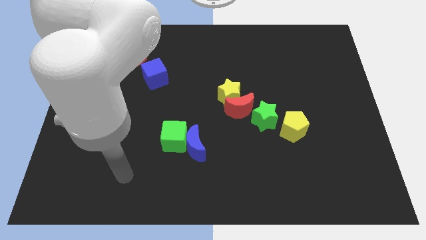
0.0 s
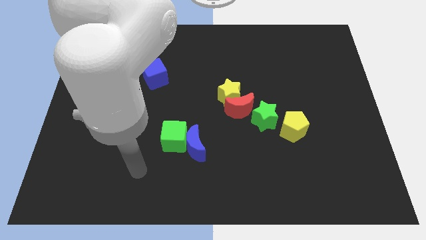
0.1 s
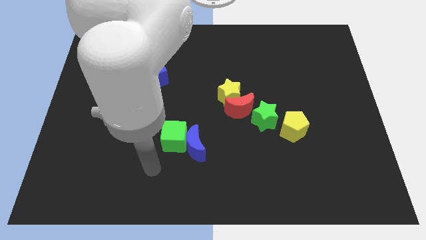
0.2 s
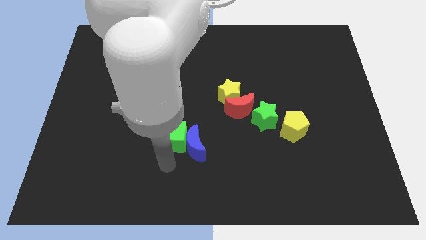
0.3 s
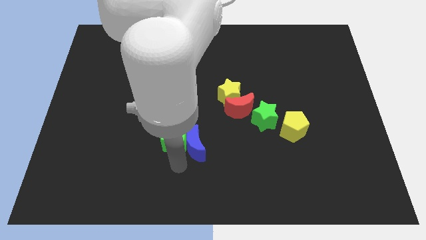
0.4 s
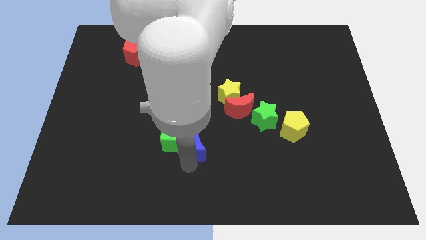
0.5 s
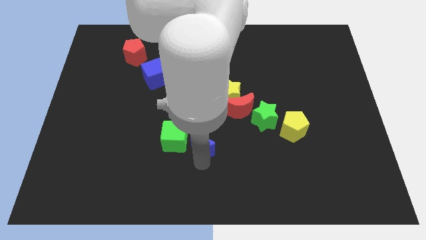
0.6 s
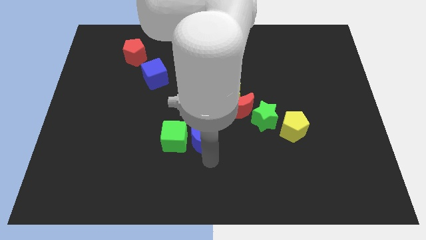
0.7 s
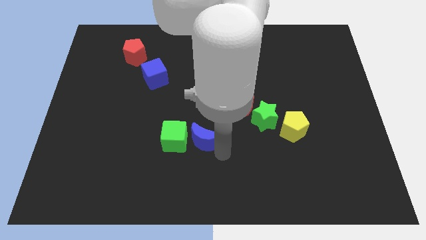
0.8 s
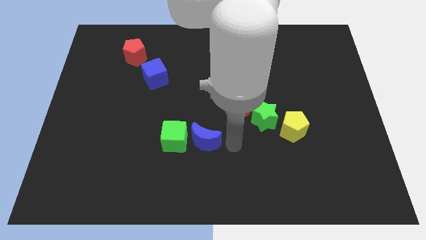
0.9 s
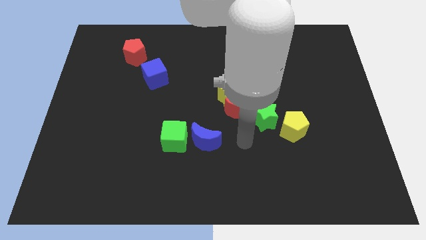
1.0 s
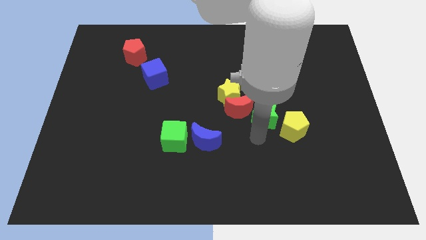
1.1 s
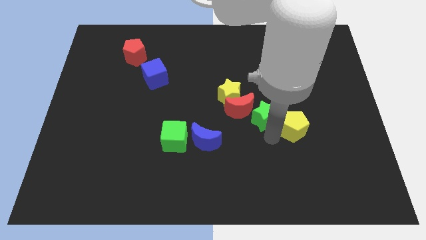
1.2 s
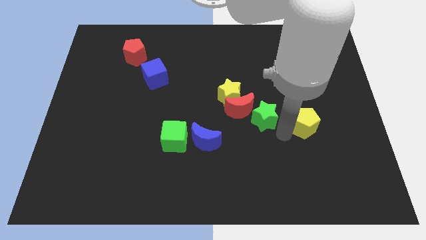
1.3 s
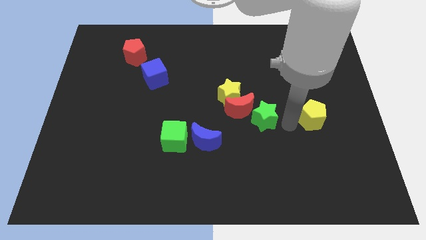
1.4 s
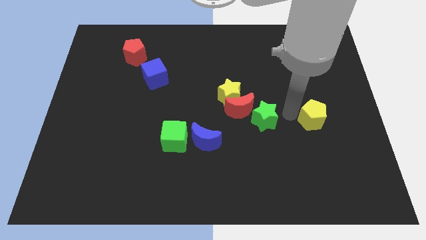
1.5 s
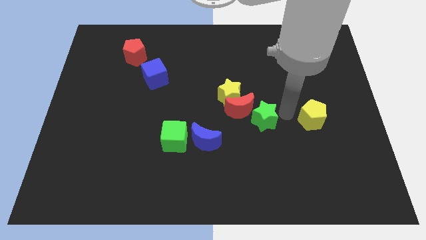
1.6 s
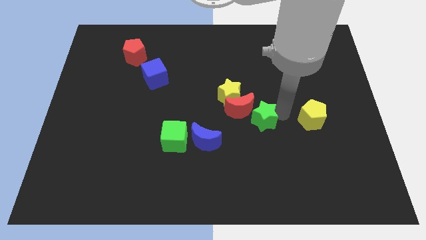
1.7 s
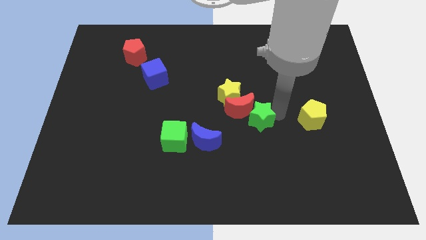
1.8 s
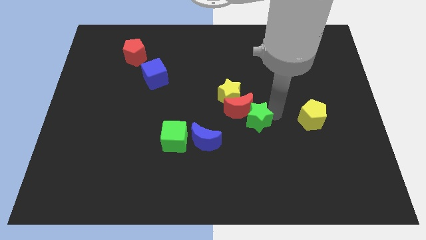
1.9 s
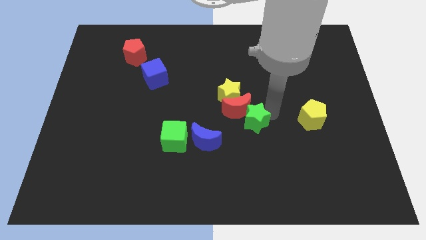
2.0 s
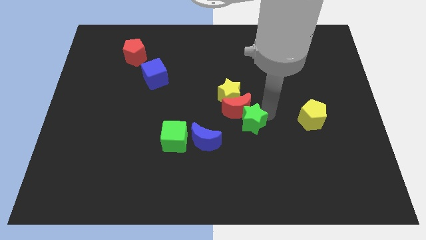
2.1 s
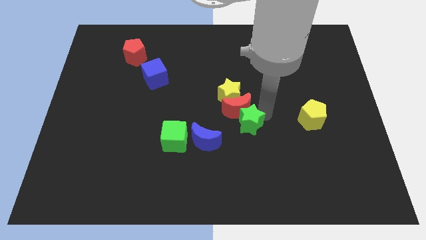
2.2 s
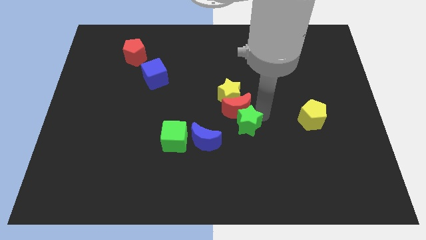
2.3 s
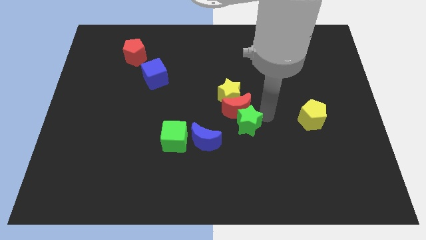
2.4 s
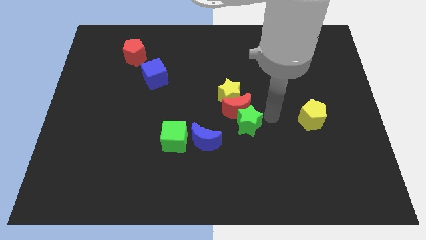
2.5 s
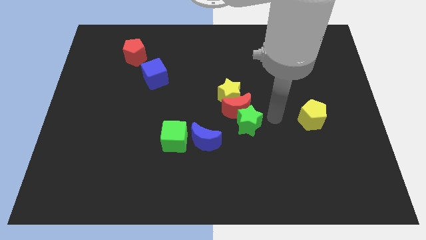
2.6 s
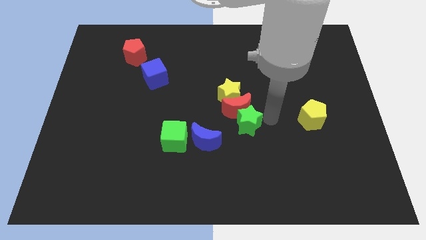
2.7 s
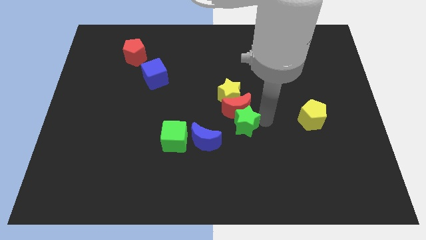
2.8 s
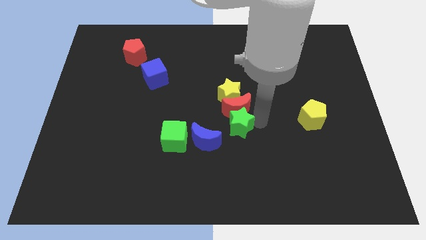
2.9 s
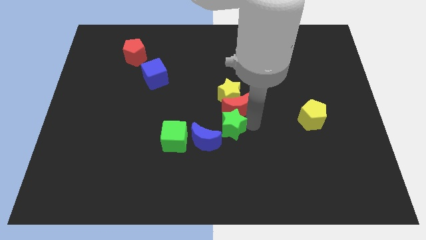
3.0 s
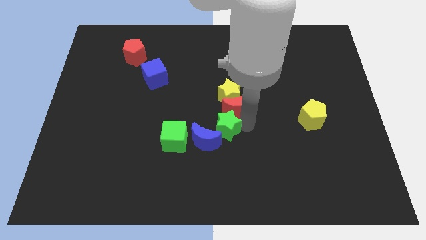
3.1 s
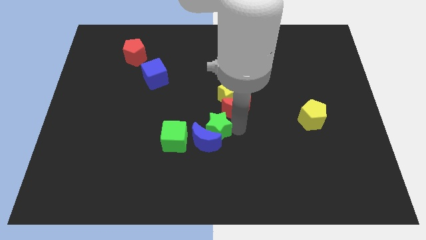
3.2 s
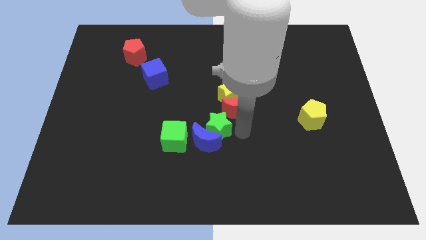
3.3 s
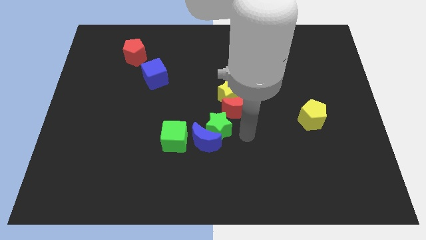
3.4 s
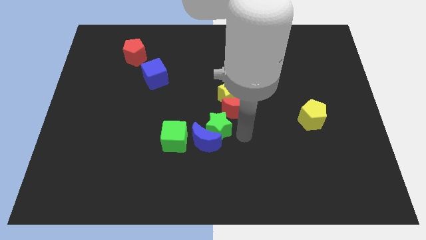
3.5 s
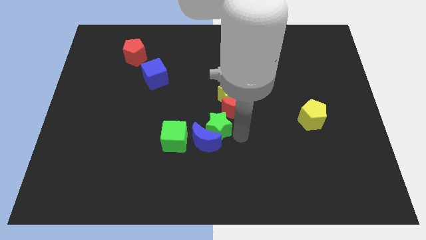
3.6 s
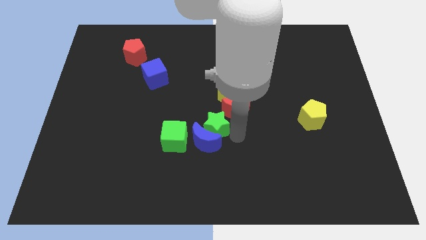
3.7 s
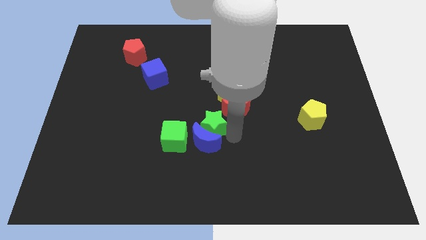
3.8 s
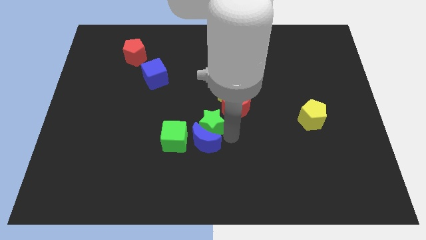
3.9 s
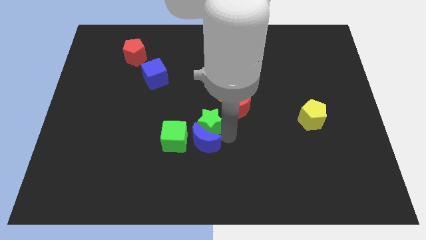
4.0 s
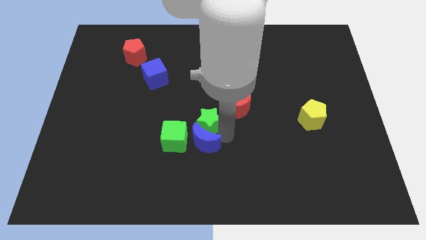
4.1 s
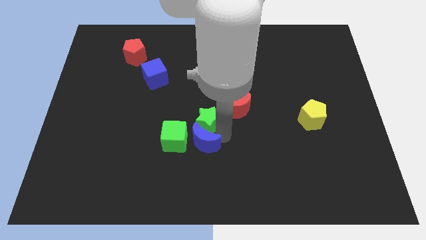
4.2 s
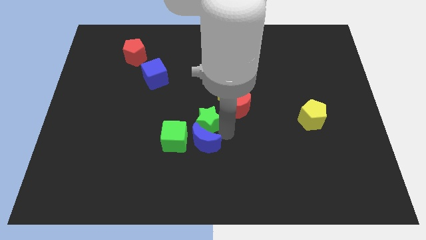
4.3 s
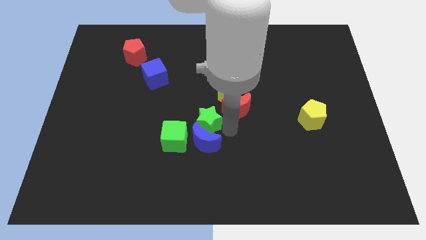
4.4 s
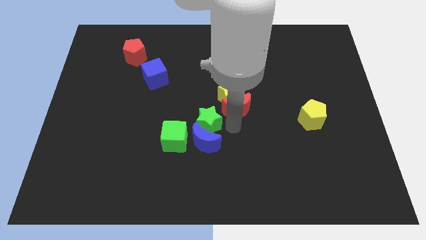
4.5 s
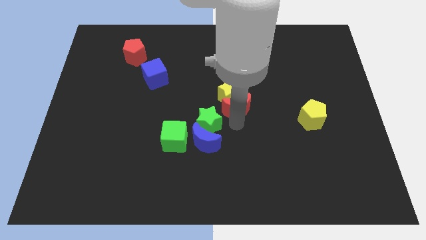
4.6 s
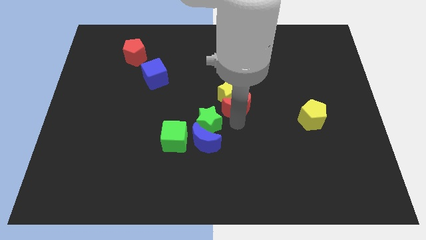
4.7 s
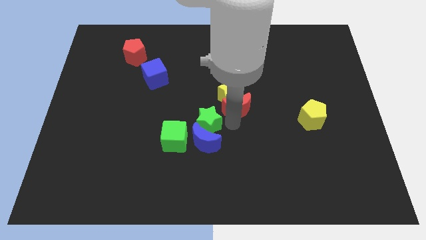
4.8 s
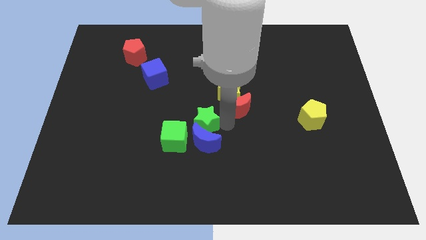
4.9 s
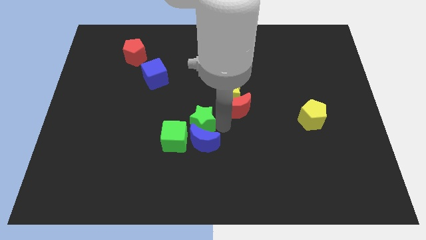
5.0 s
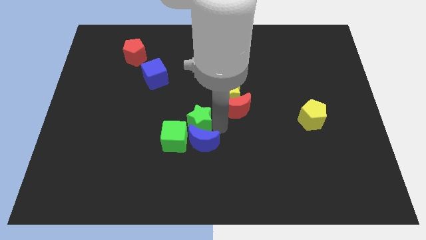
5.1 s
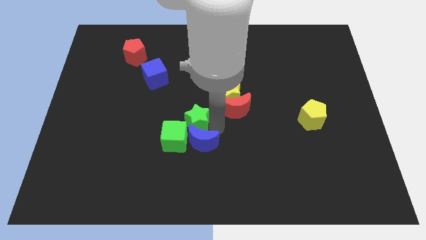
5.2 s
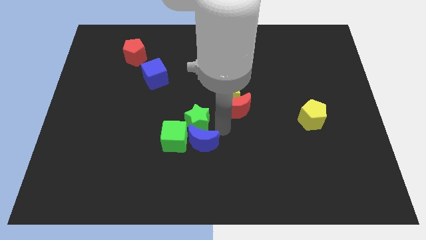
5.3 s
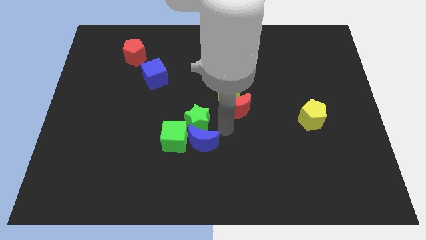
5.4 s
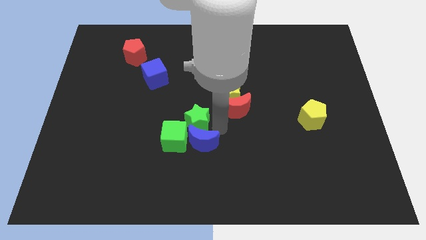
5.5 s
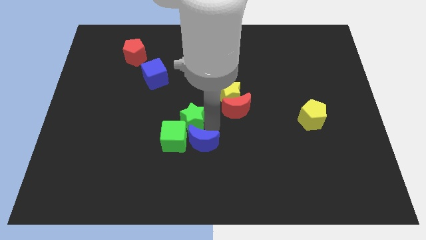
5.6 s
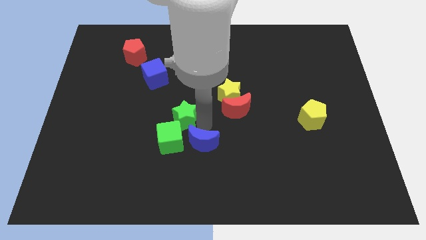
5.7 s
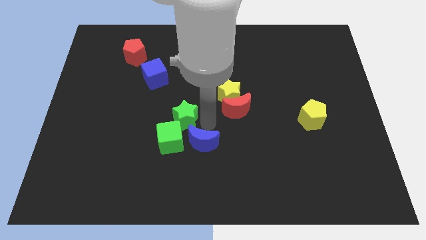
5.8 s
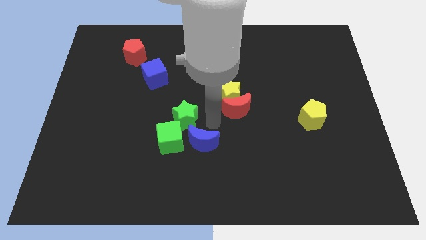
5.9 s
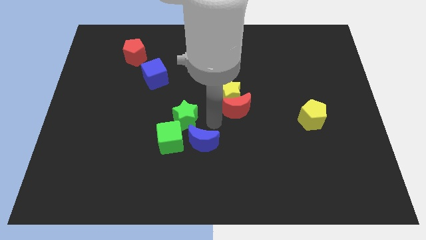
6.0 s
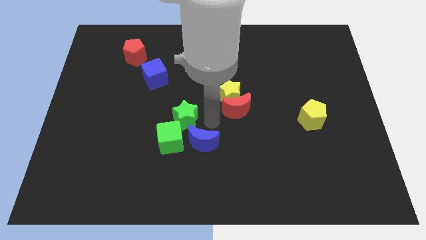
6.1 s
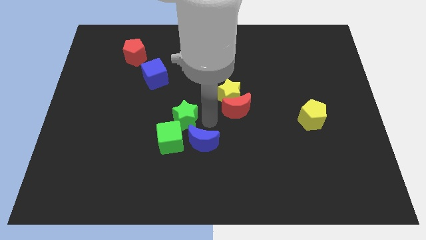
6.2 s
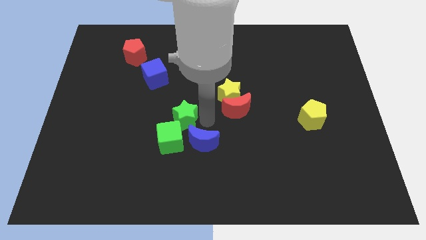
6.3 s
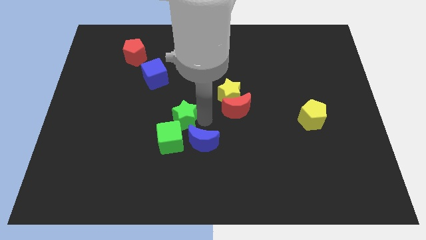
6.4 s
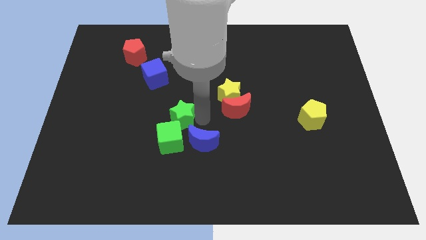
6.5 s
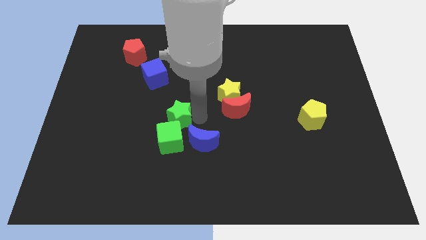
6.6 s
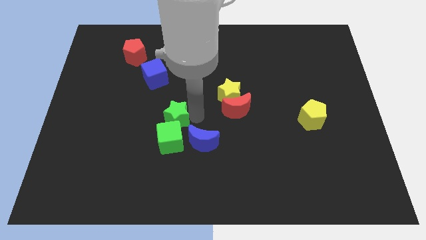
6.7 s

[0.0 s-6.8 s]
slide the green star left

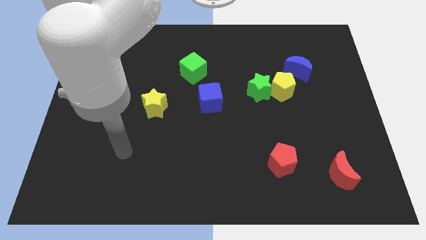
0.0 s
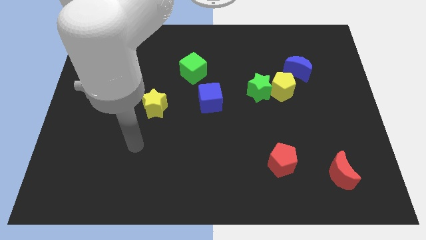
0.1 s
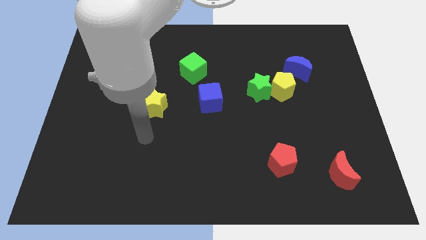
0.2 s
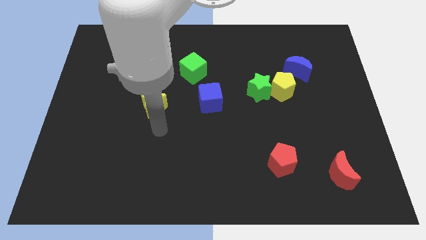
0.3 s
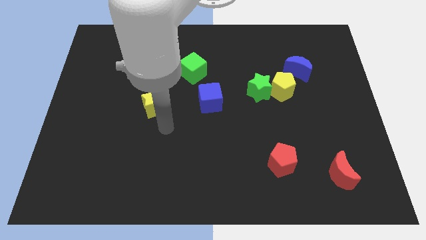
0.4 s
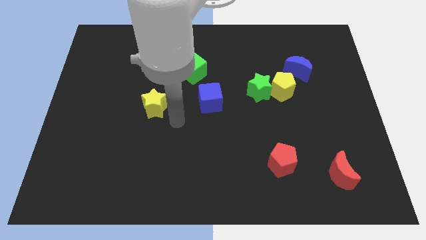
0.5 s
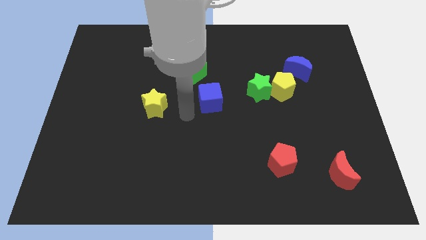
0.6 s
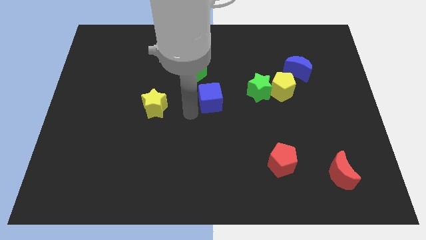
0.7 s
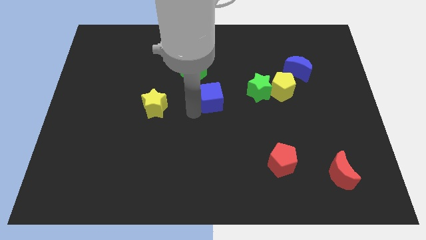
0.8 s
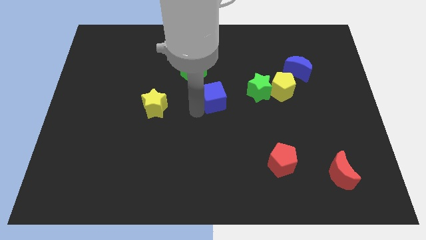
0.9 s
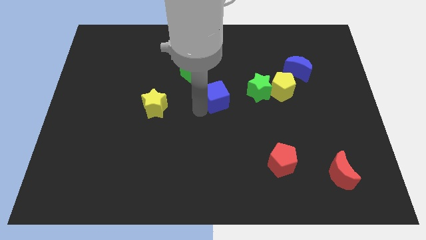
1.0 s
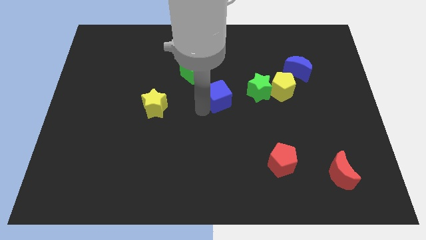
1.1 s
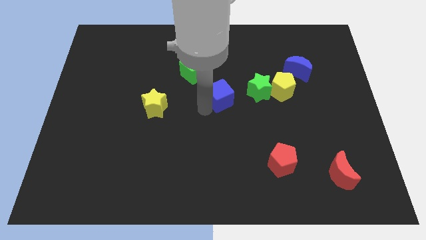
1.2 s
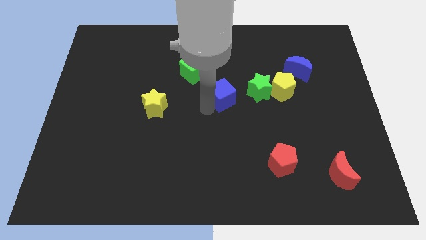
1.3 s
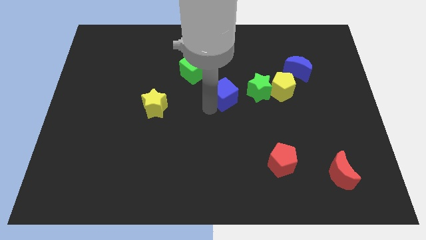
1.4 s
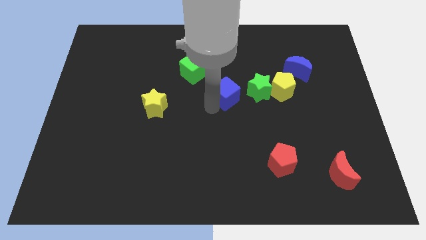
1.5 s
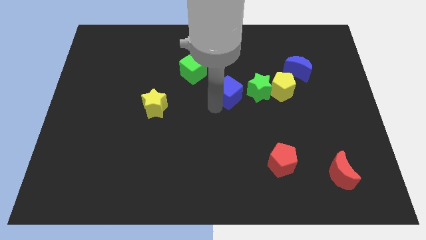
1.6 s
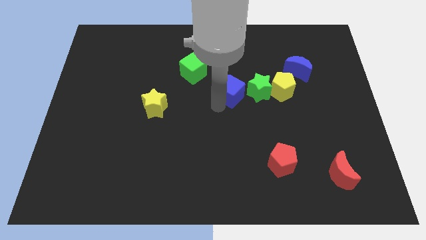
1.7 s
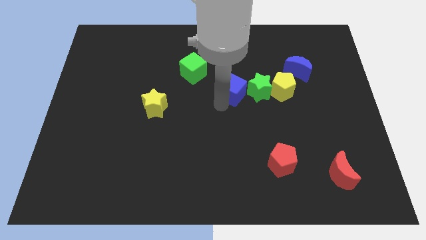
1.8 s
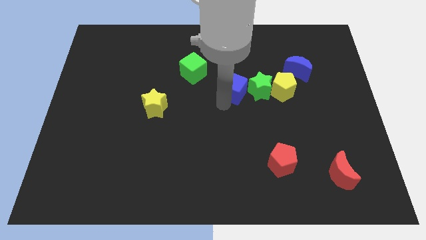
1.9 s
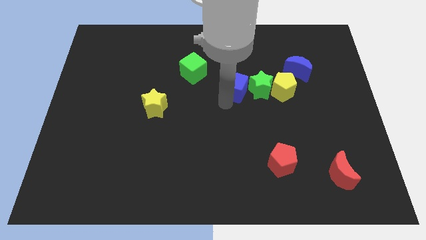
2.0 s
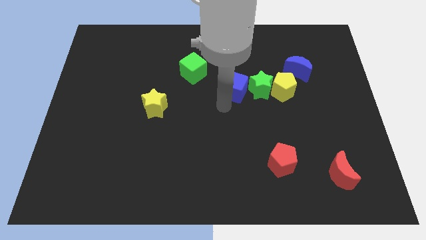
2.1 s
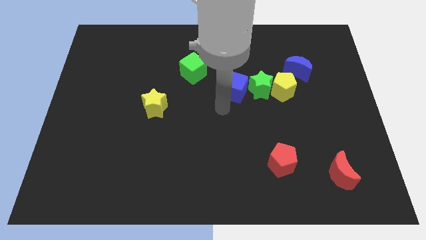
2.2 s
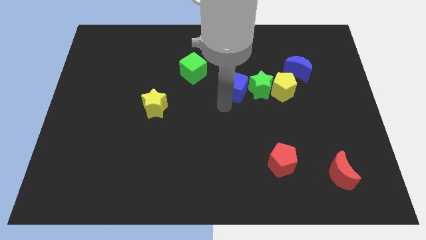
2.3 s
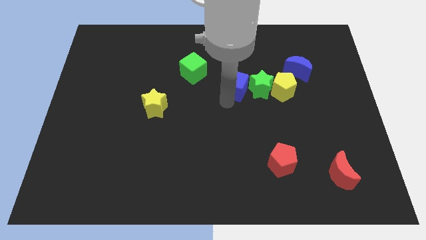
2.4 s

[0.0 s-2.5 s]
slide the blue cube upwards and right a bit
